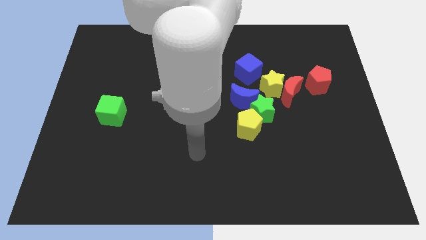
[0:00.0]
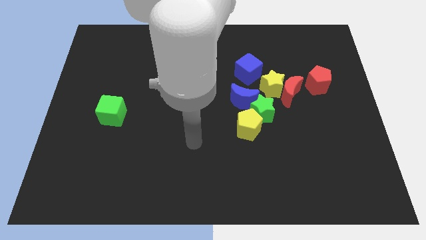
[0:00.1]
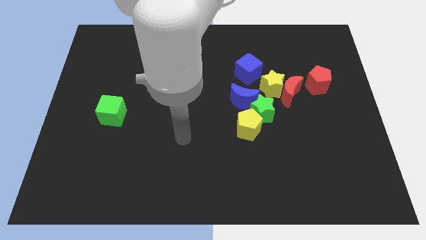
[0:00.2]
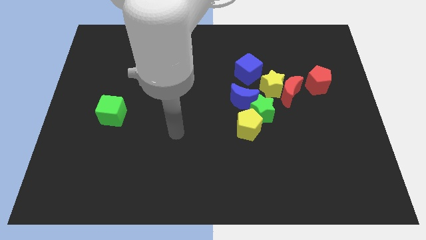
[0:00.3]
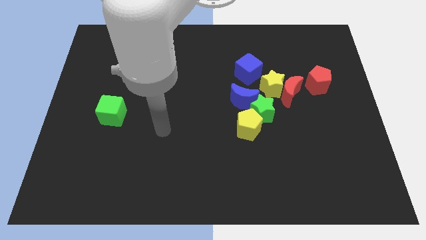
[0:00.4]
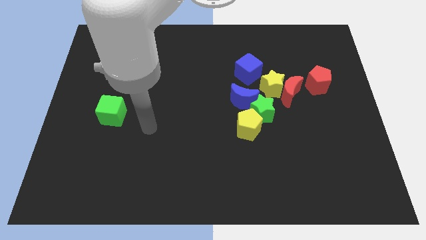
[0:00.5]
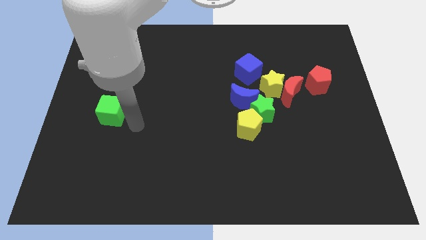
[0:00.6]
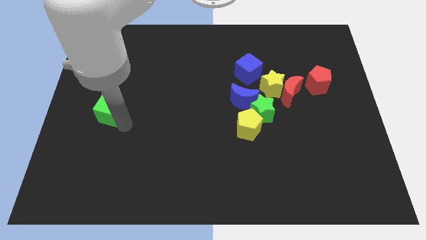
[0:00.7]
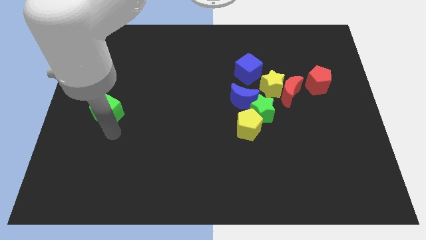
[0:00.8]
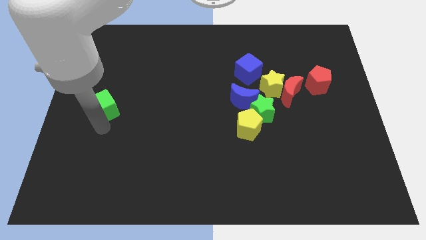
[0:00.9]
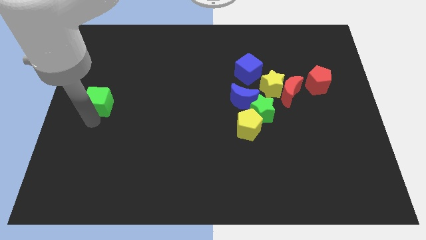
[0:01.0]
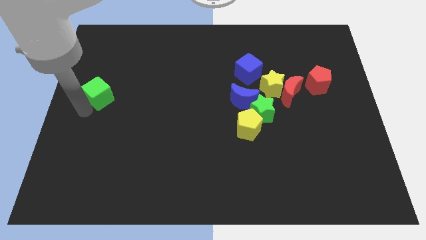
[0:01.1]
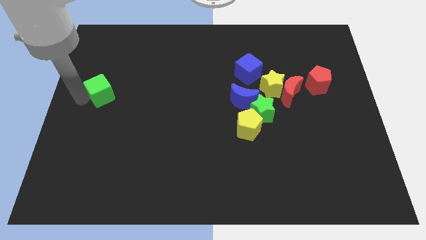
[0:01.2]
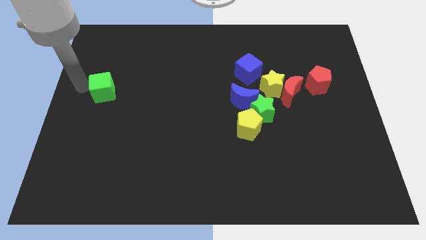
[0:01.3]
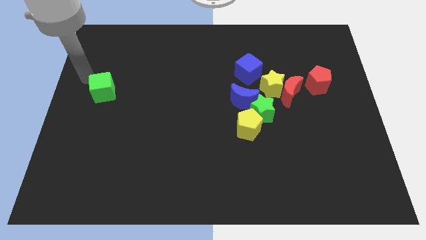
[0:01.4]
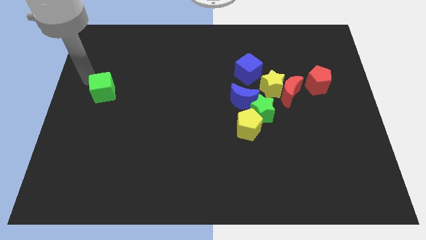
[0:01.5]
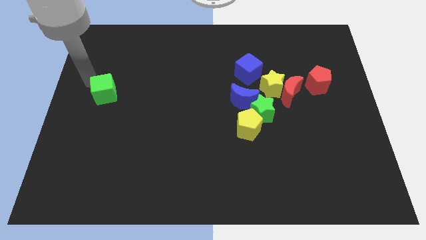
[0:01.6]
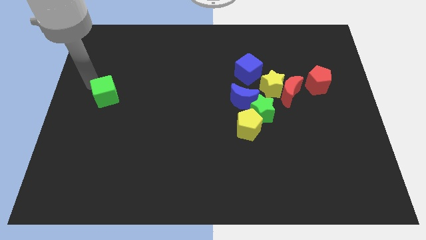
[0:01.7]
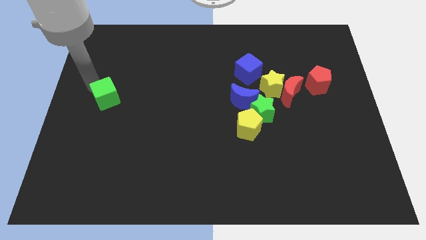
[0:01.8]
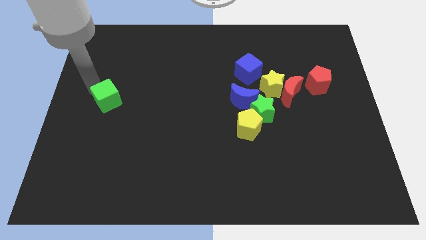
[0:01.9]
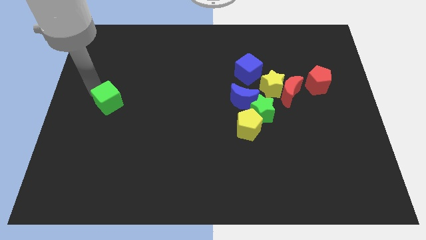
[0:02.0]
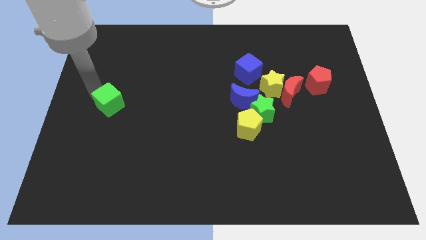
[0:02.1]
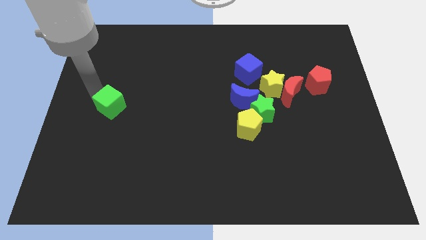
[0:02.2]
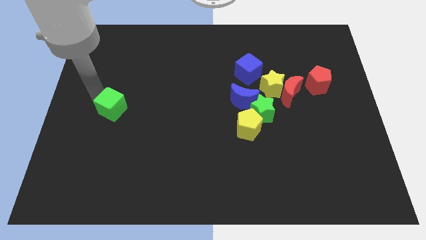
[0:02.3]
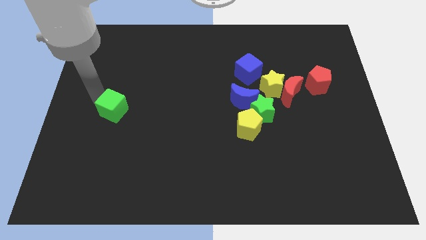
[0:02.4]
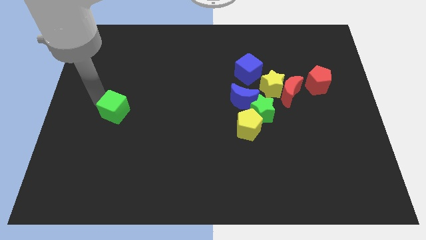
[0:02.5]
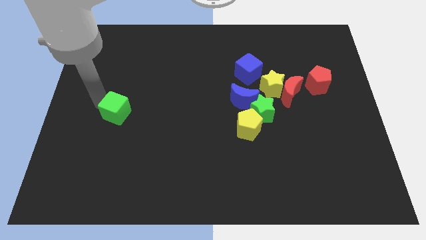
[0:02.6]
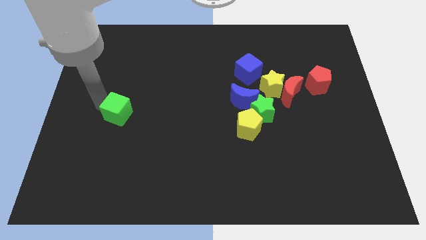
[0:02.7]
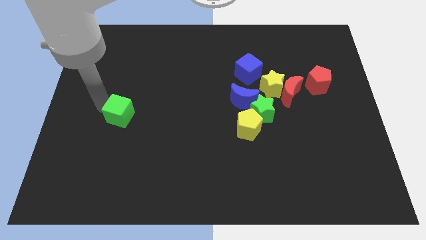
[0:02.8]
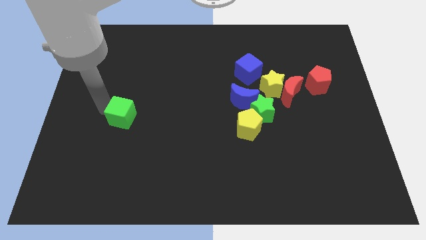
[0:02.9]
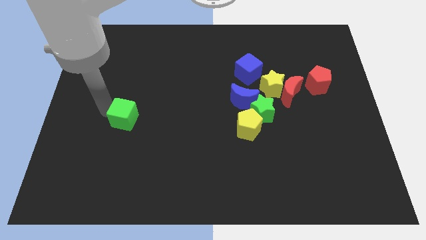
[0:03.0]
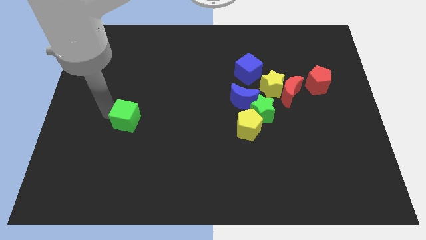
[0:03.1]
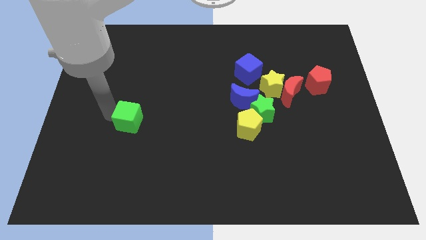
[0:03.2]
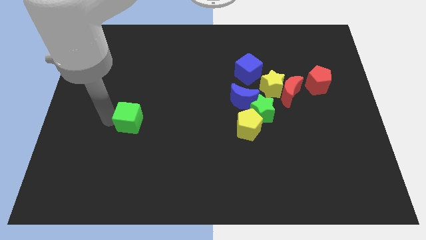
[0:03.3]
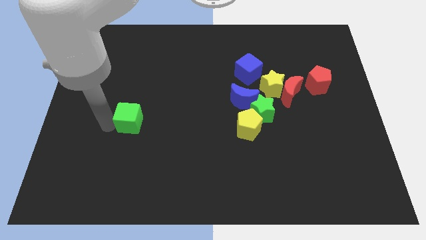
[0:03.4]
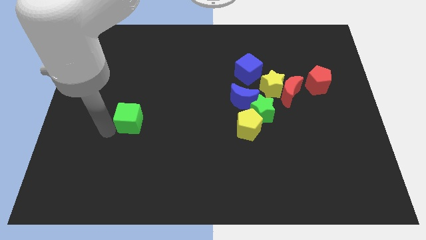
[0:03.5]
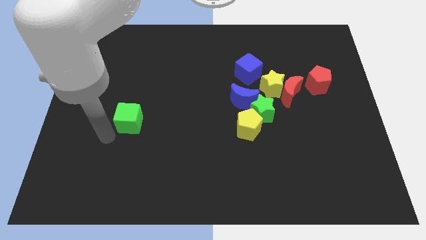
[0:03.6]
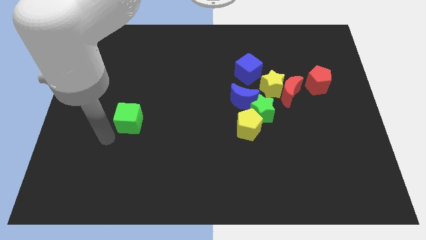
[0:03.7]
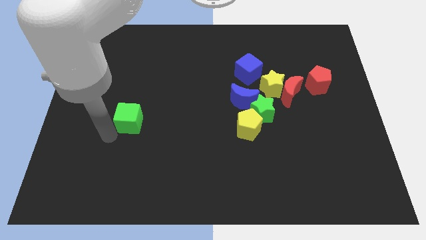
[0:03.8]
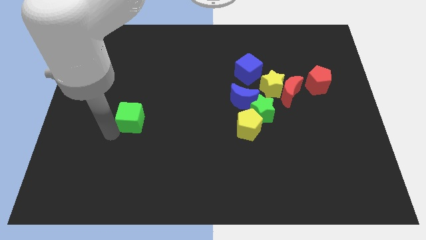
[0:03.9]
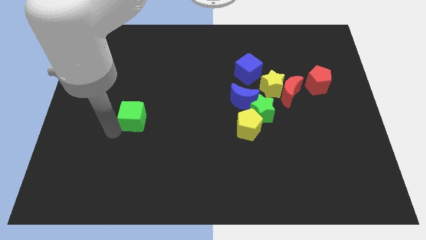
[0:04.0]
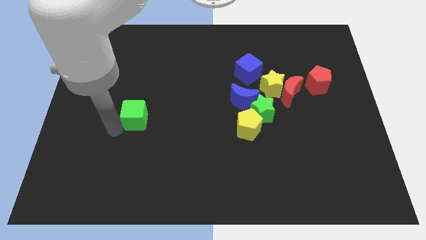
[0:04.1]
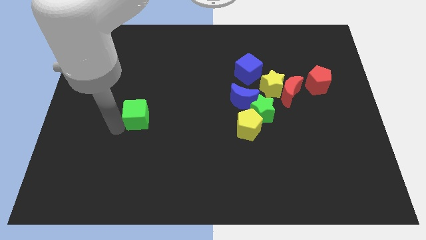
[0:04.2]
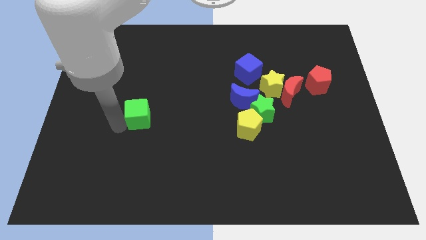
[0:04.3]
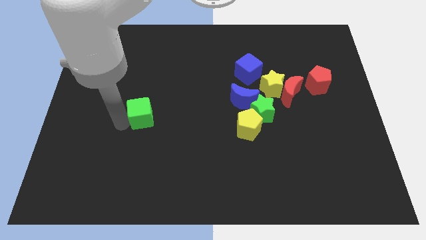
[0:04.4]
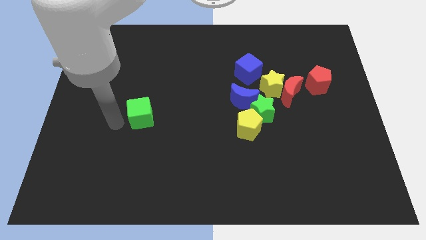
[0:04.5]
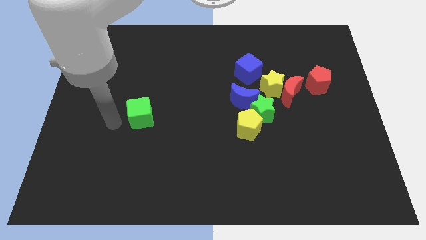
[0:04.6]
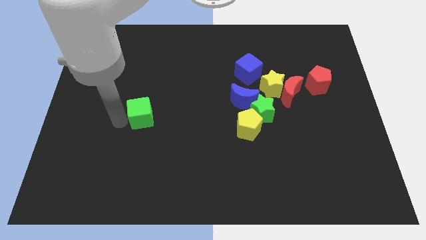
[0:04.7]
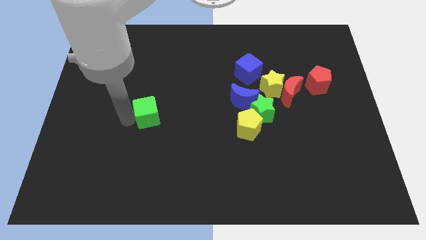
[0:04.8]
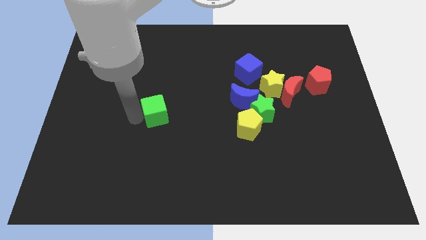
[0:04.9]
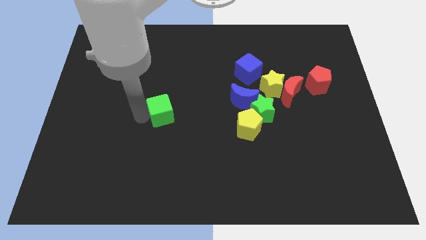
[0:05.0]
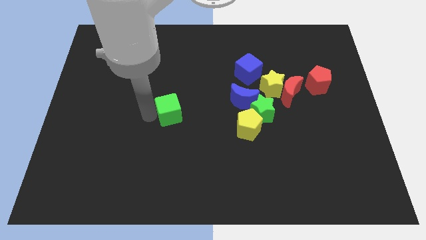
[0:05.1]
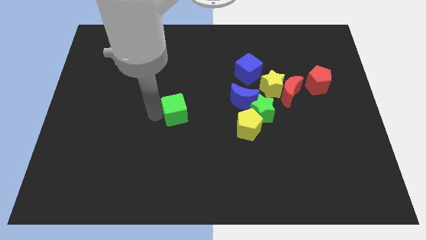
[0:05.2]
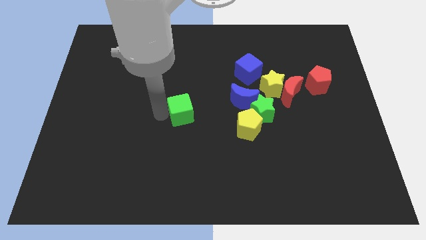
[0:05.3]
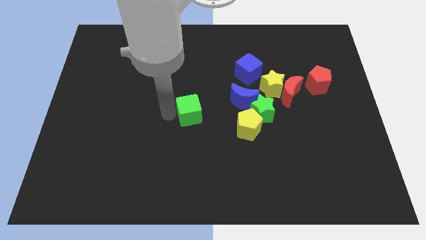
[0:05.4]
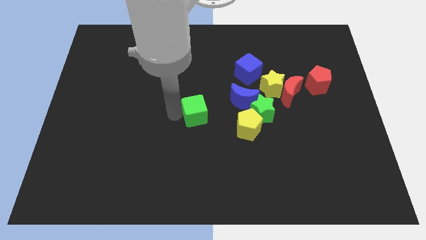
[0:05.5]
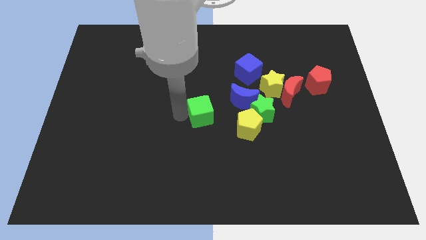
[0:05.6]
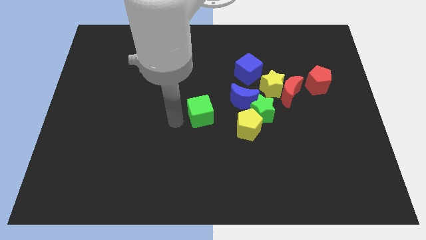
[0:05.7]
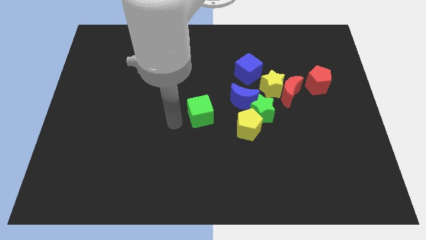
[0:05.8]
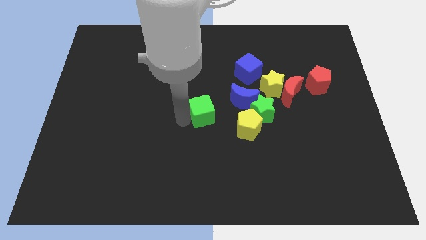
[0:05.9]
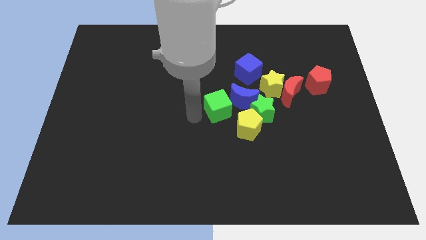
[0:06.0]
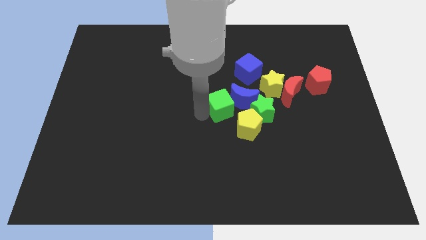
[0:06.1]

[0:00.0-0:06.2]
put the green cube to the blue moon

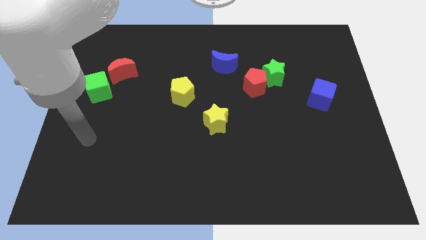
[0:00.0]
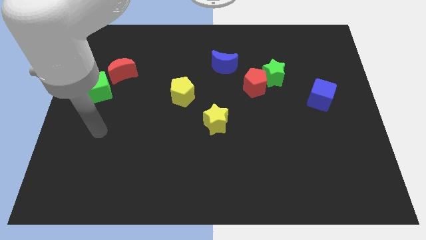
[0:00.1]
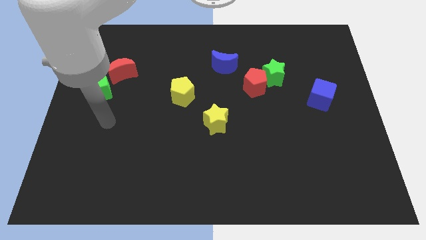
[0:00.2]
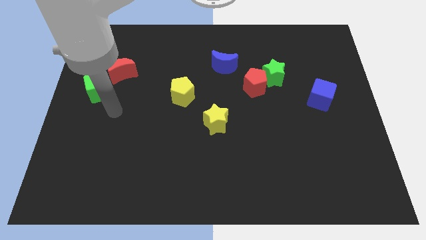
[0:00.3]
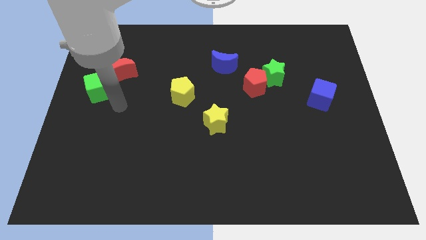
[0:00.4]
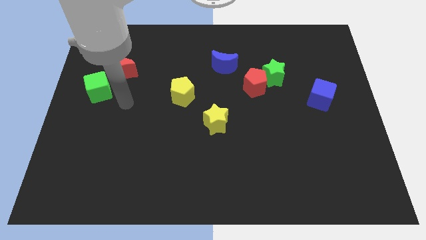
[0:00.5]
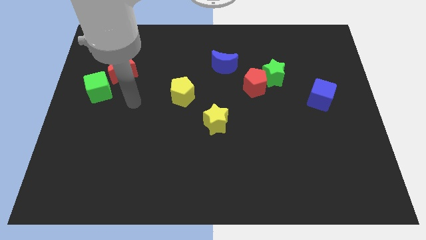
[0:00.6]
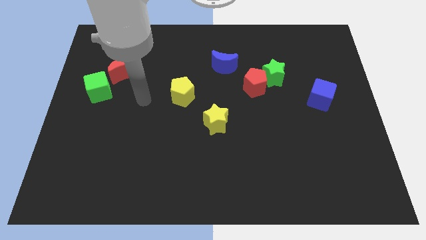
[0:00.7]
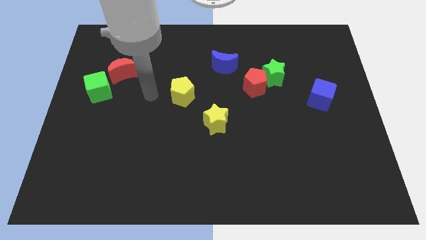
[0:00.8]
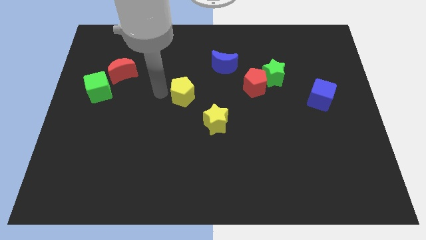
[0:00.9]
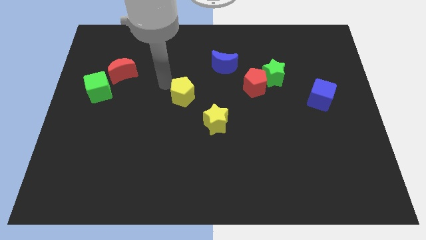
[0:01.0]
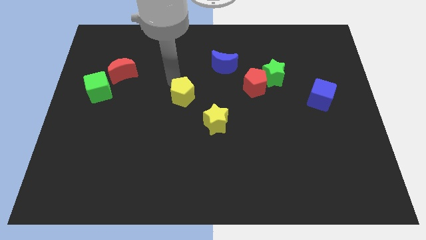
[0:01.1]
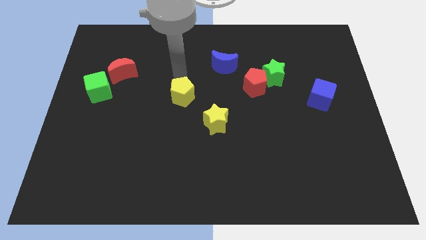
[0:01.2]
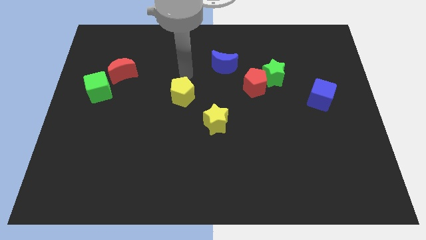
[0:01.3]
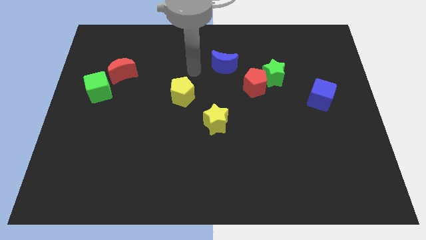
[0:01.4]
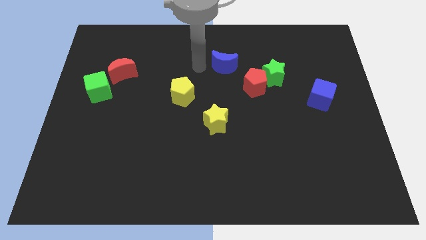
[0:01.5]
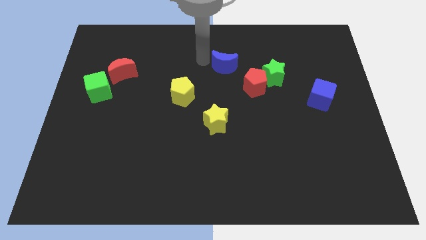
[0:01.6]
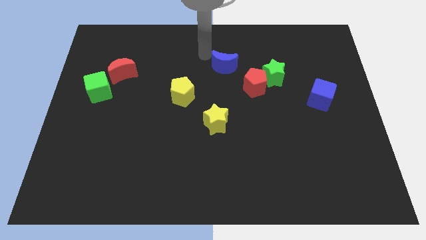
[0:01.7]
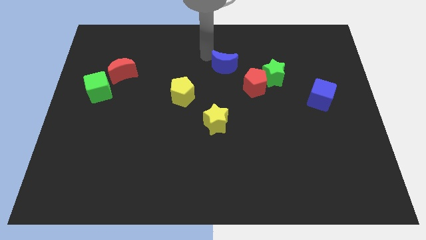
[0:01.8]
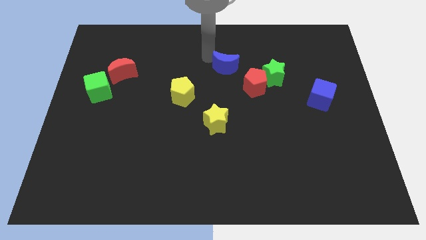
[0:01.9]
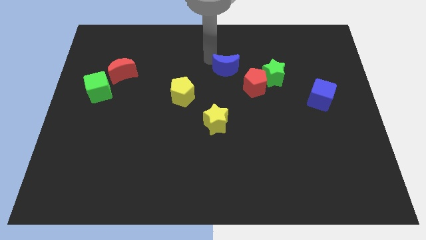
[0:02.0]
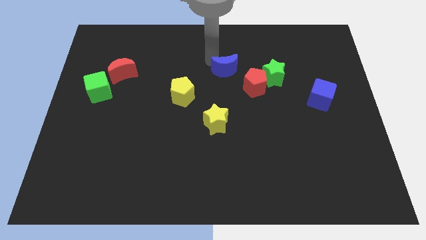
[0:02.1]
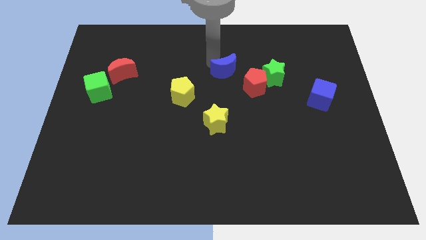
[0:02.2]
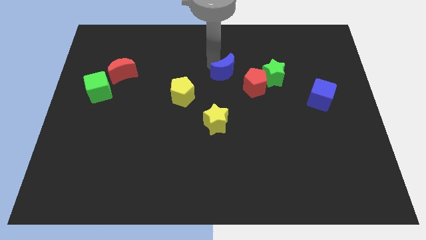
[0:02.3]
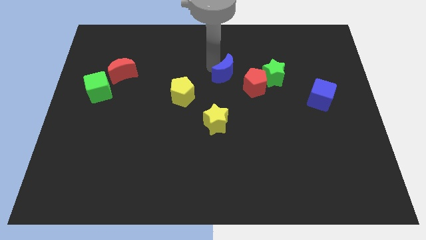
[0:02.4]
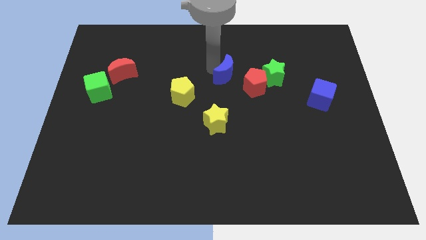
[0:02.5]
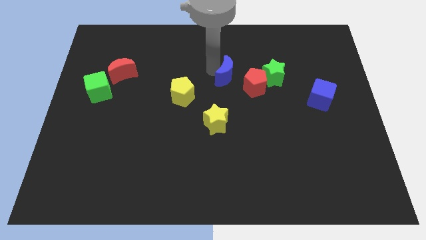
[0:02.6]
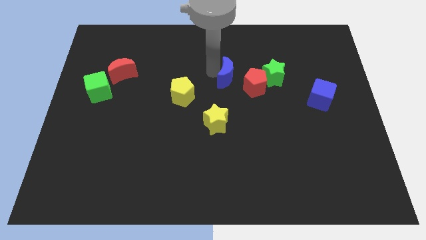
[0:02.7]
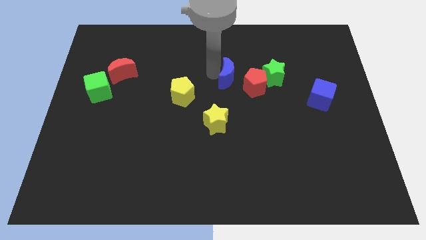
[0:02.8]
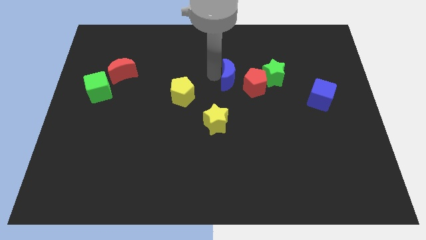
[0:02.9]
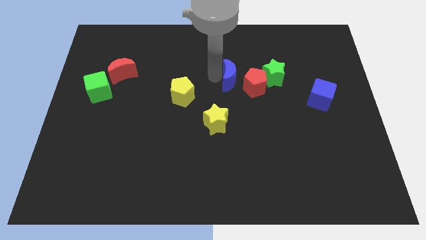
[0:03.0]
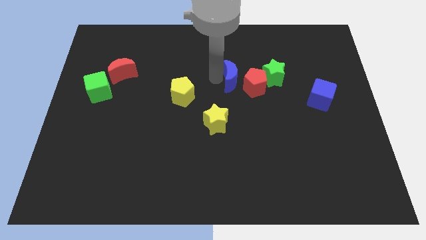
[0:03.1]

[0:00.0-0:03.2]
slide the blue moon next to the red pentagon
